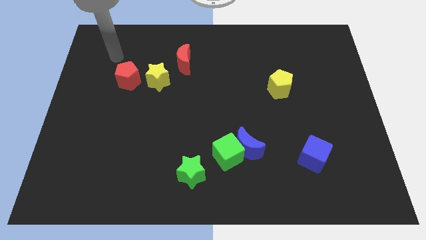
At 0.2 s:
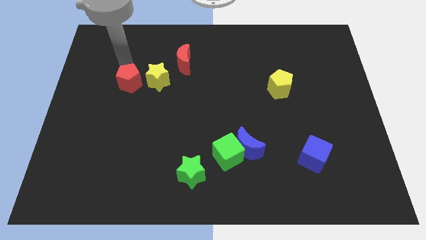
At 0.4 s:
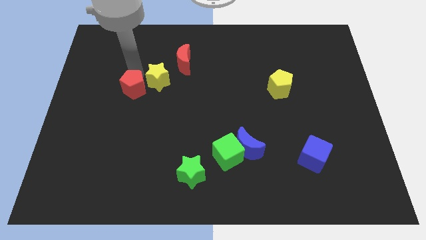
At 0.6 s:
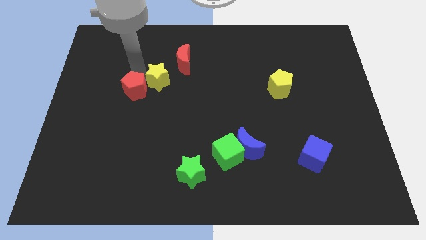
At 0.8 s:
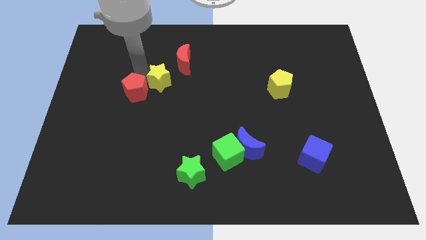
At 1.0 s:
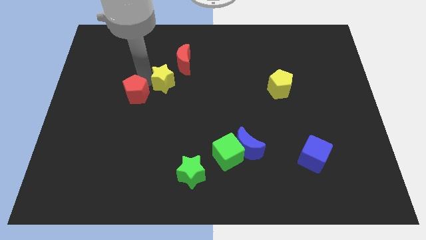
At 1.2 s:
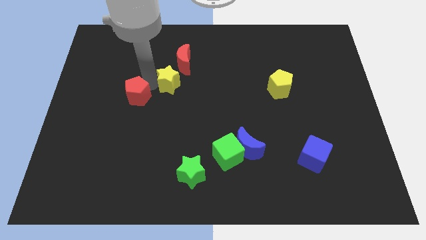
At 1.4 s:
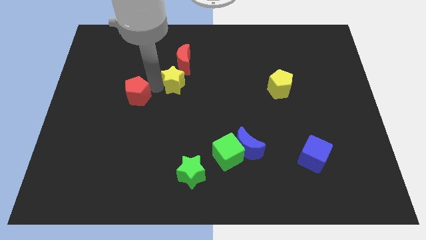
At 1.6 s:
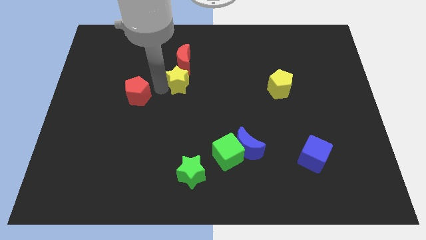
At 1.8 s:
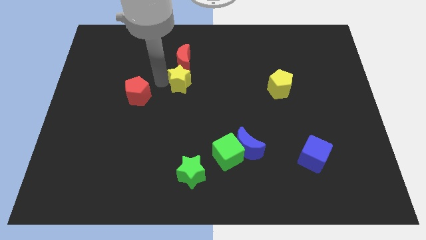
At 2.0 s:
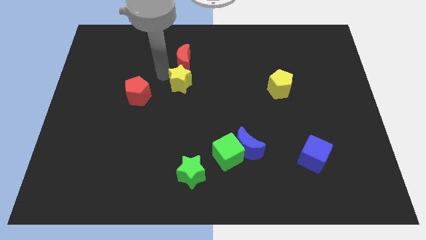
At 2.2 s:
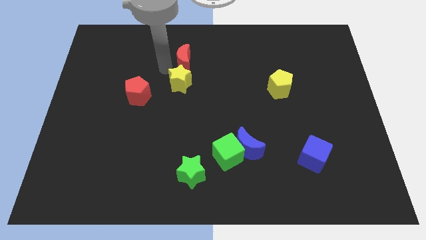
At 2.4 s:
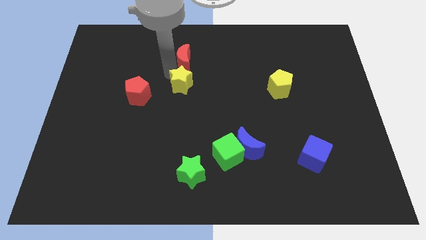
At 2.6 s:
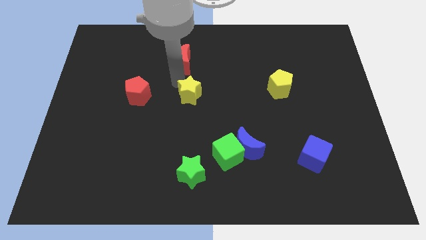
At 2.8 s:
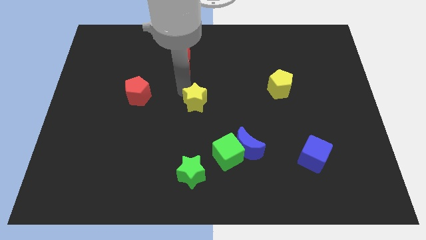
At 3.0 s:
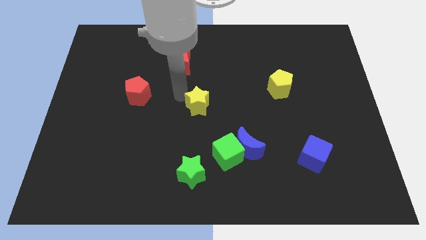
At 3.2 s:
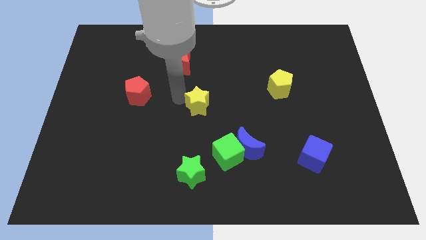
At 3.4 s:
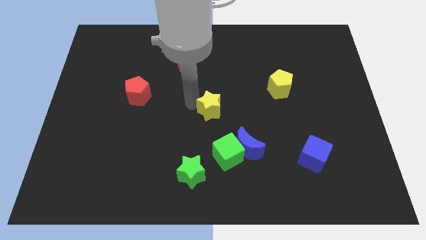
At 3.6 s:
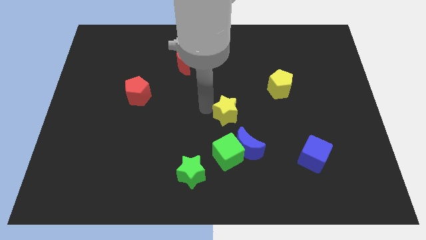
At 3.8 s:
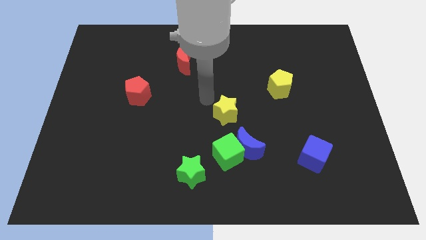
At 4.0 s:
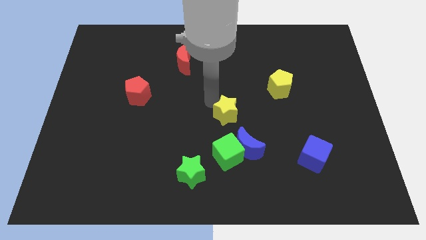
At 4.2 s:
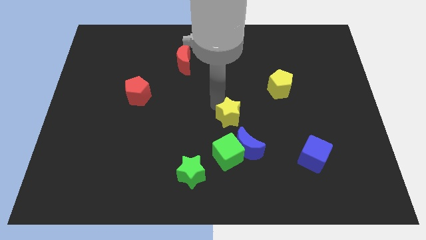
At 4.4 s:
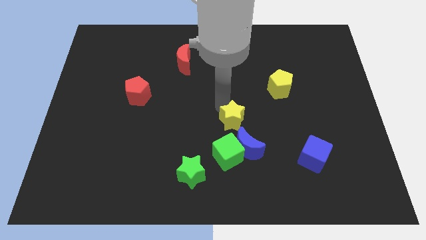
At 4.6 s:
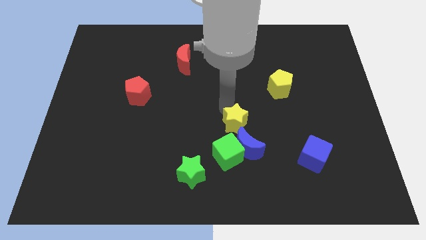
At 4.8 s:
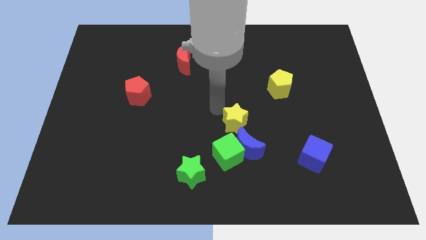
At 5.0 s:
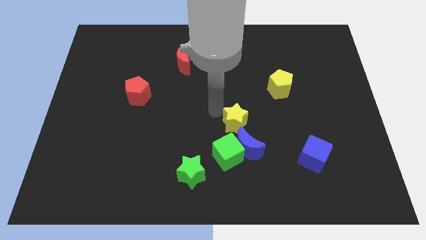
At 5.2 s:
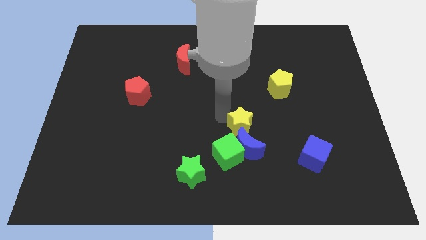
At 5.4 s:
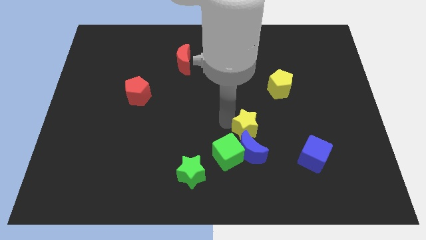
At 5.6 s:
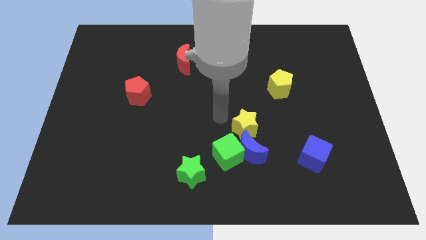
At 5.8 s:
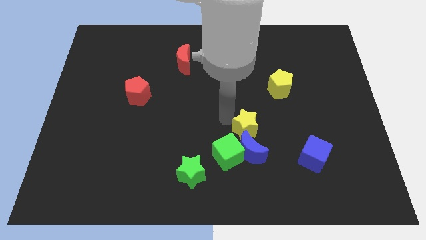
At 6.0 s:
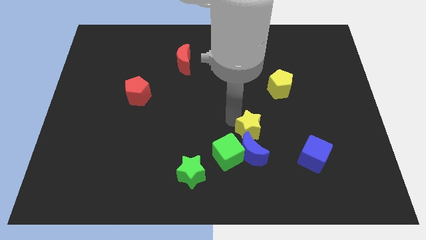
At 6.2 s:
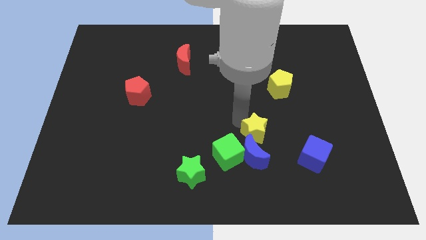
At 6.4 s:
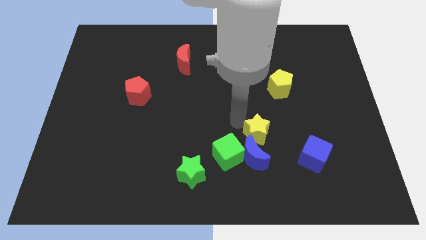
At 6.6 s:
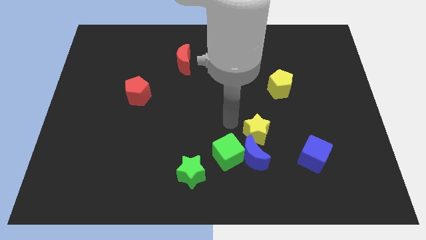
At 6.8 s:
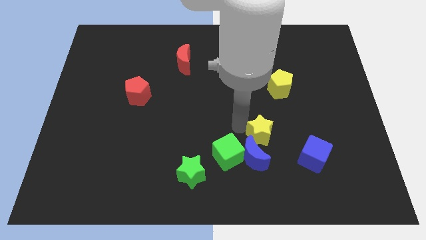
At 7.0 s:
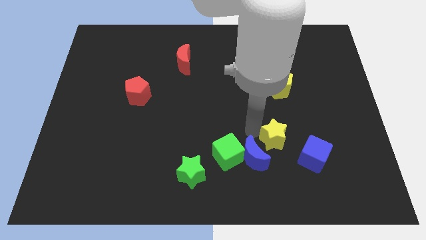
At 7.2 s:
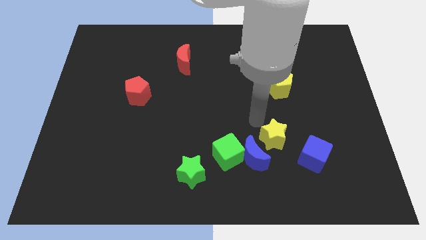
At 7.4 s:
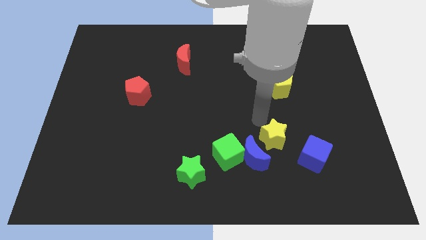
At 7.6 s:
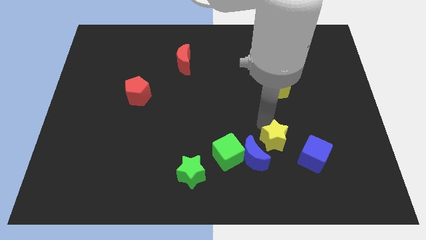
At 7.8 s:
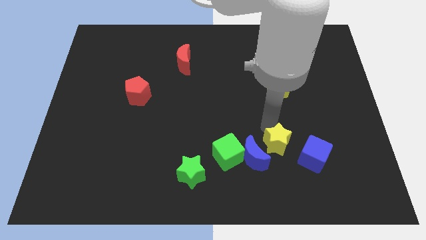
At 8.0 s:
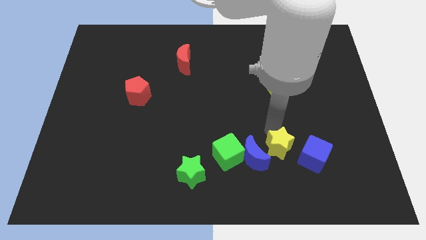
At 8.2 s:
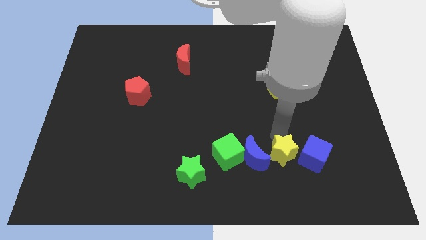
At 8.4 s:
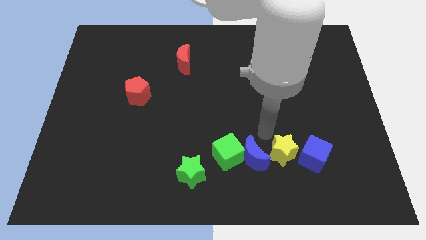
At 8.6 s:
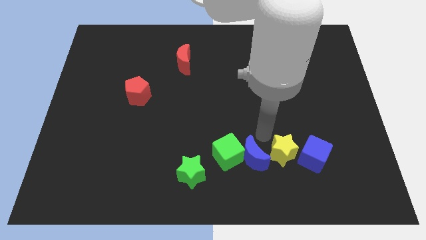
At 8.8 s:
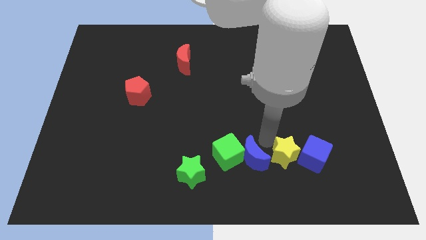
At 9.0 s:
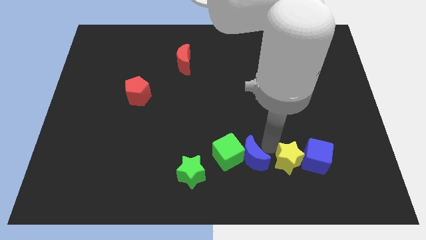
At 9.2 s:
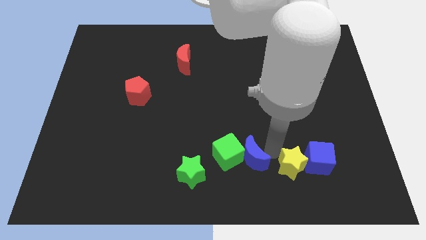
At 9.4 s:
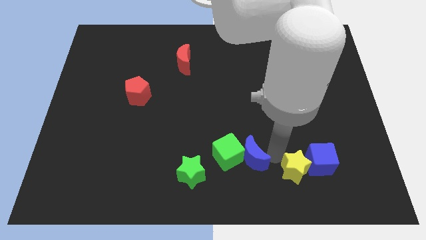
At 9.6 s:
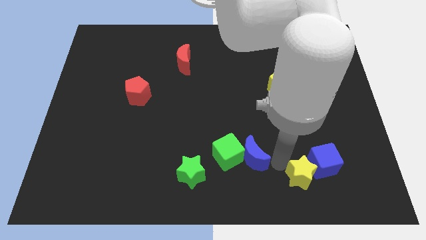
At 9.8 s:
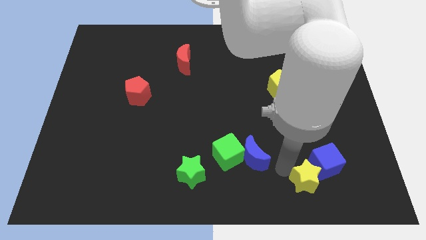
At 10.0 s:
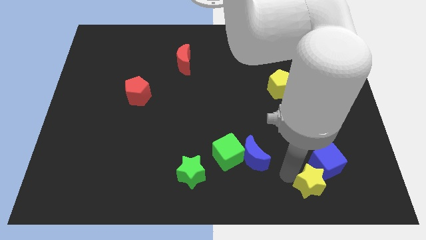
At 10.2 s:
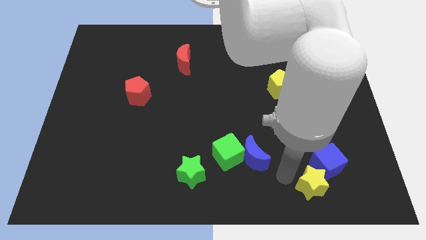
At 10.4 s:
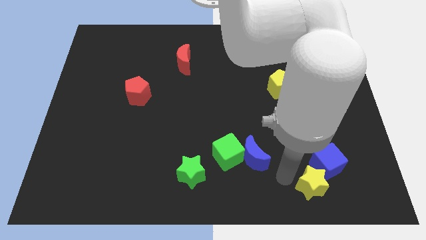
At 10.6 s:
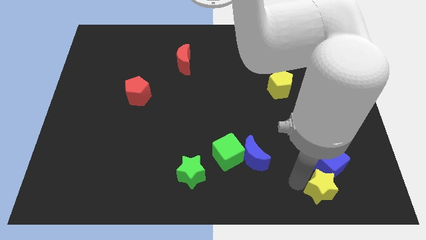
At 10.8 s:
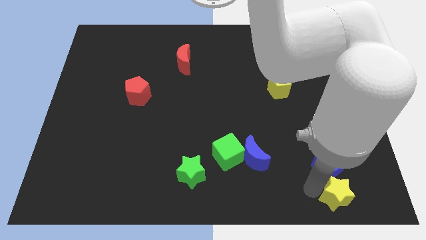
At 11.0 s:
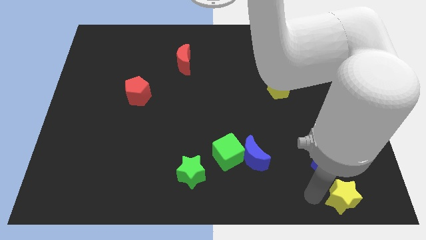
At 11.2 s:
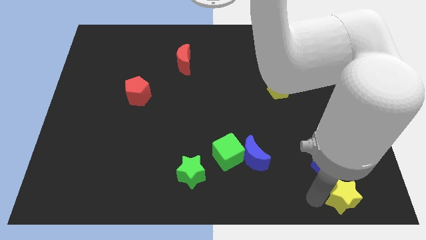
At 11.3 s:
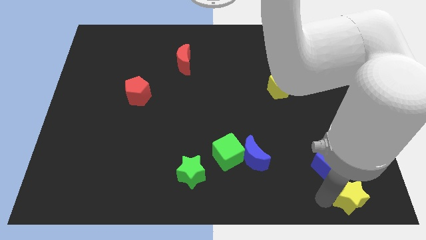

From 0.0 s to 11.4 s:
push the yellow star to the bottom right of the board

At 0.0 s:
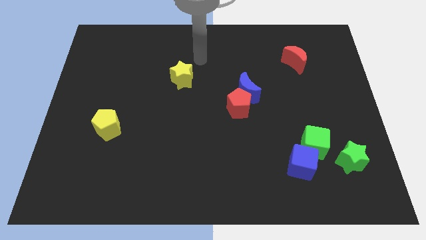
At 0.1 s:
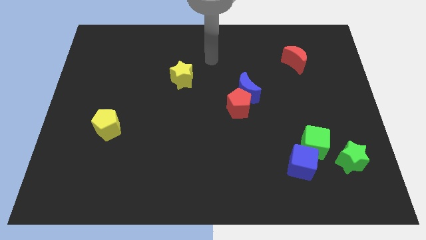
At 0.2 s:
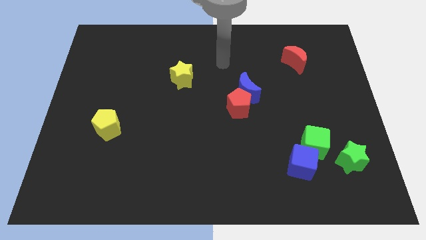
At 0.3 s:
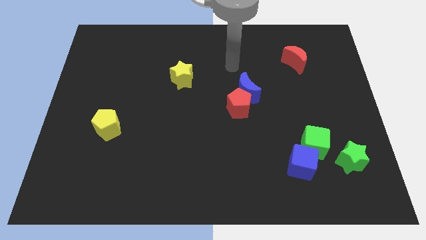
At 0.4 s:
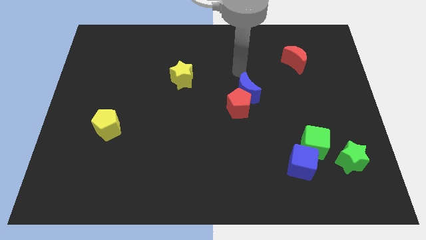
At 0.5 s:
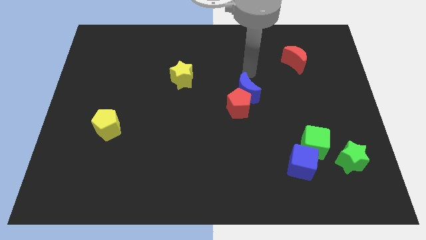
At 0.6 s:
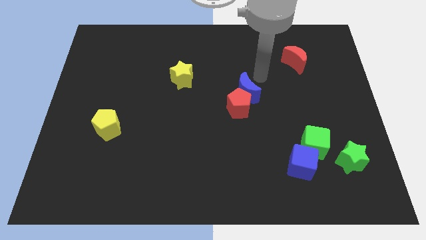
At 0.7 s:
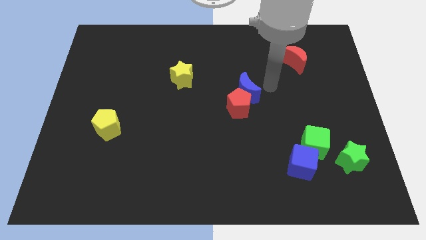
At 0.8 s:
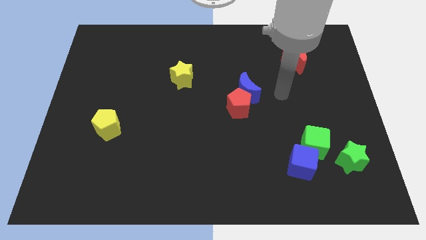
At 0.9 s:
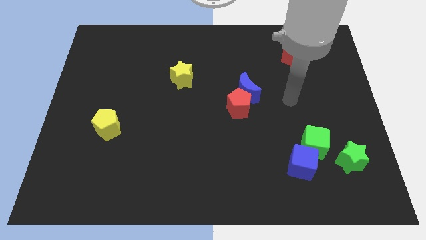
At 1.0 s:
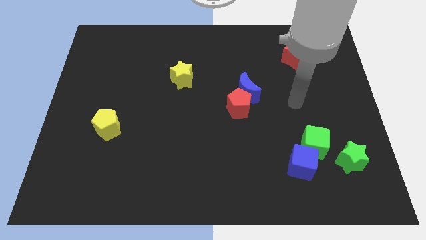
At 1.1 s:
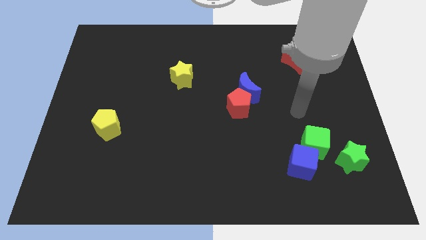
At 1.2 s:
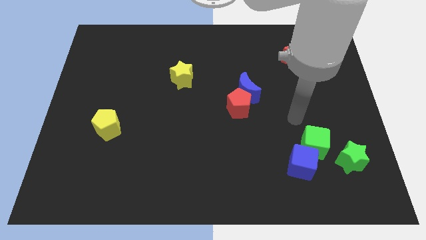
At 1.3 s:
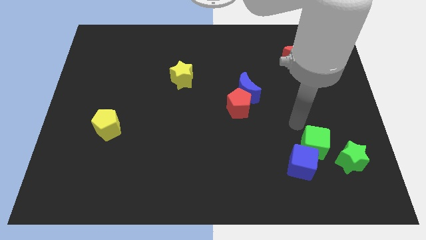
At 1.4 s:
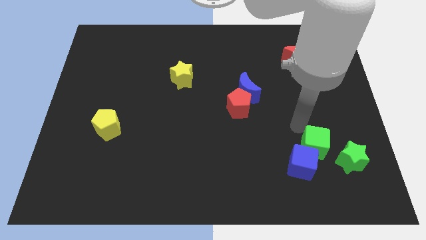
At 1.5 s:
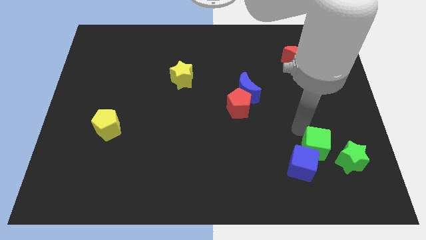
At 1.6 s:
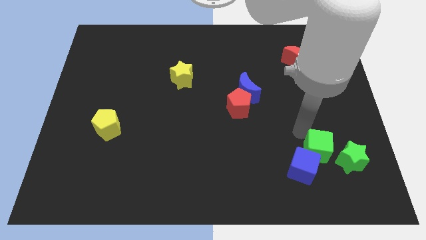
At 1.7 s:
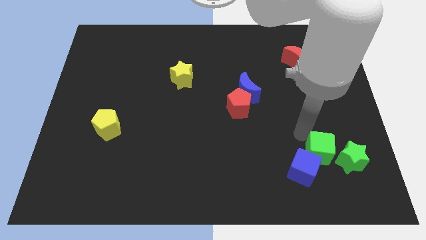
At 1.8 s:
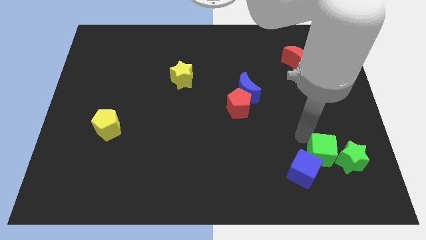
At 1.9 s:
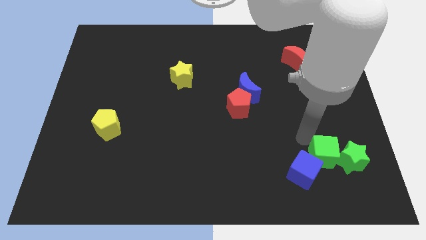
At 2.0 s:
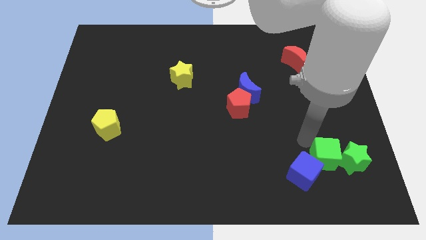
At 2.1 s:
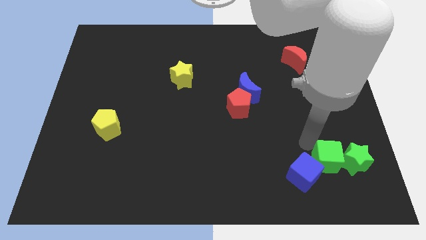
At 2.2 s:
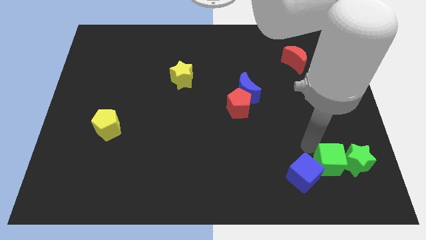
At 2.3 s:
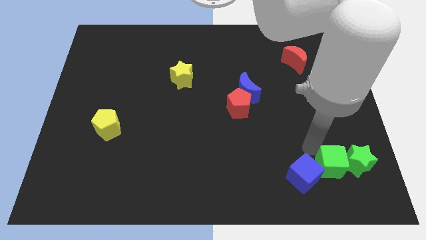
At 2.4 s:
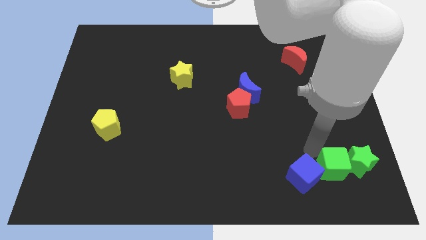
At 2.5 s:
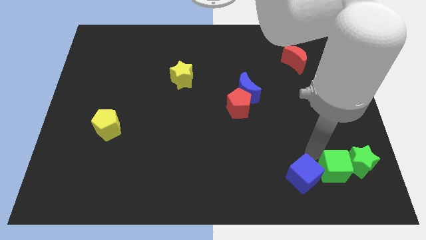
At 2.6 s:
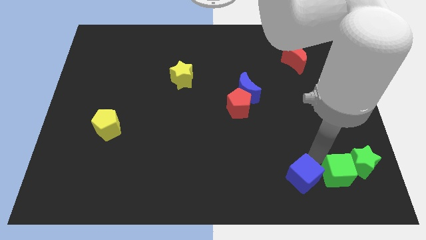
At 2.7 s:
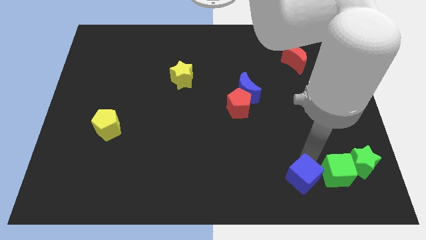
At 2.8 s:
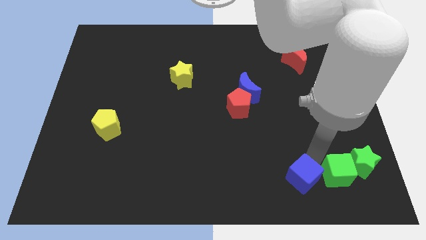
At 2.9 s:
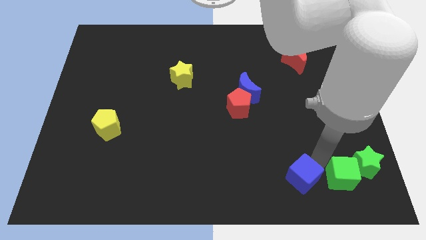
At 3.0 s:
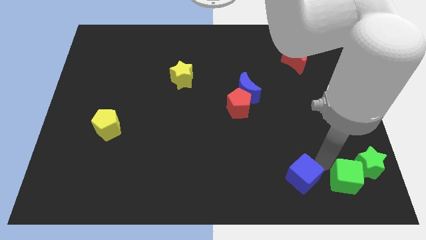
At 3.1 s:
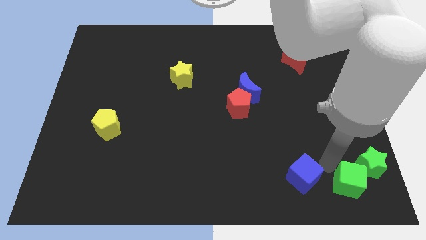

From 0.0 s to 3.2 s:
move the green cube to the bottom right
